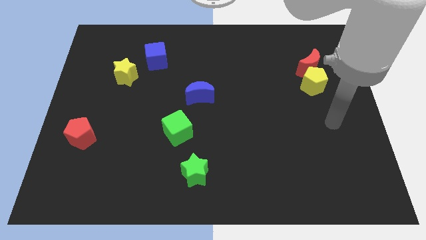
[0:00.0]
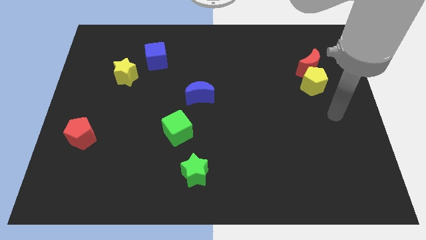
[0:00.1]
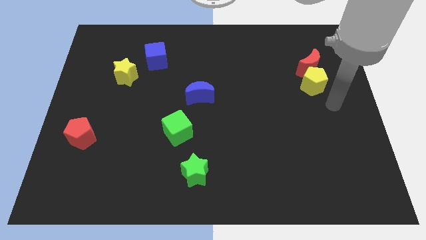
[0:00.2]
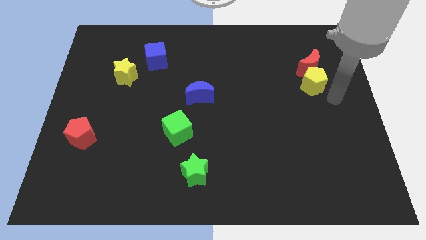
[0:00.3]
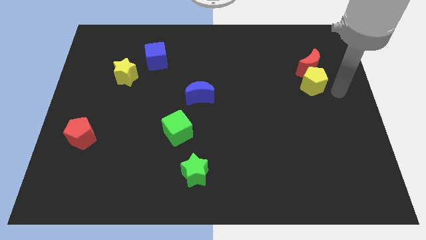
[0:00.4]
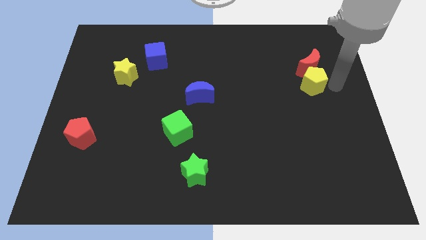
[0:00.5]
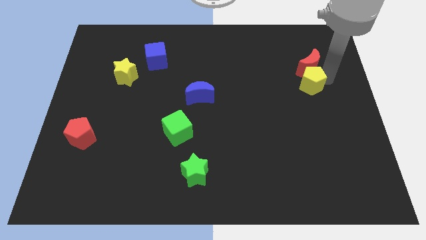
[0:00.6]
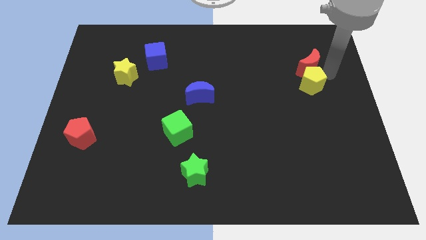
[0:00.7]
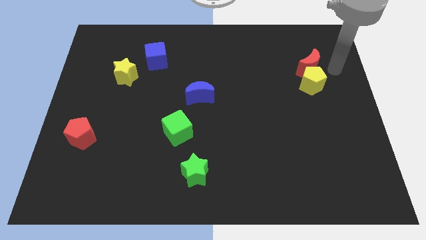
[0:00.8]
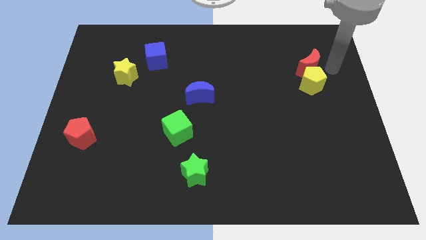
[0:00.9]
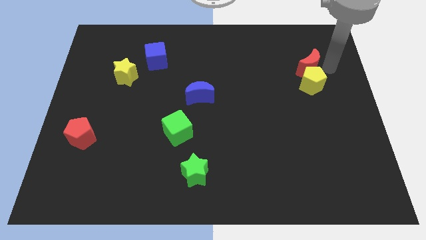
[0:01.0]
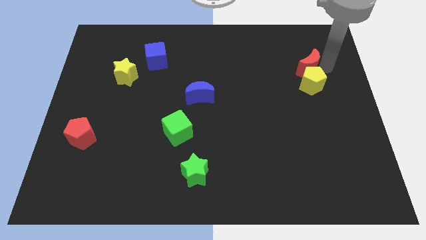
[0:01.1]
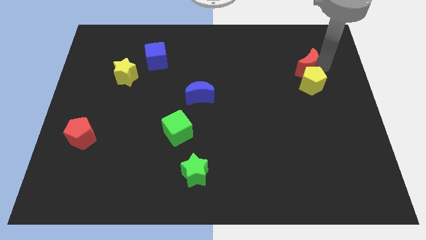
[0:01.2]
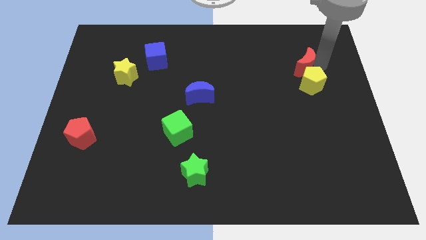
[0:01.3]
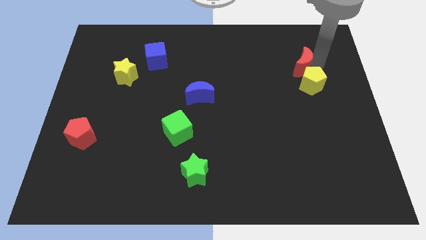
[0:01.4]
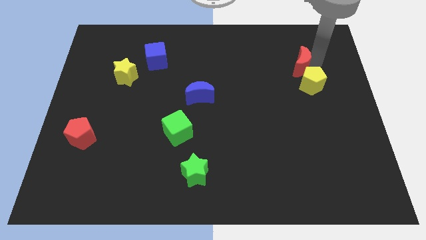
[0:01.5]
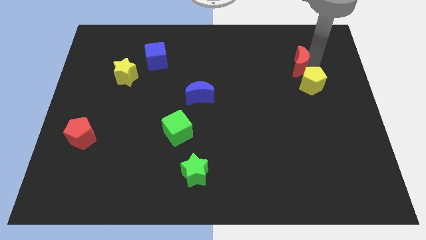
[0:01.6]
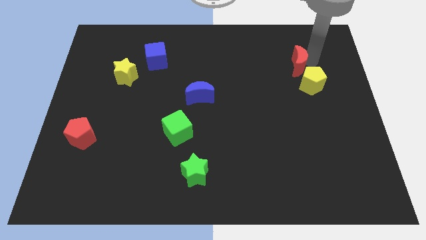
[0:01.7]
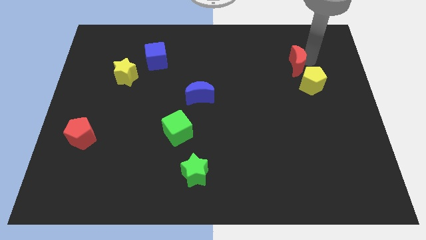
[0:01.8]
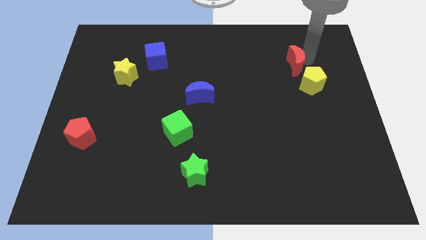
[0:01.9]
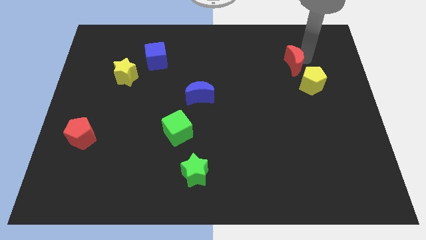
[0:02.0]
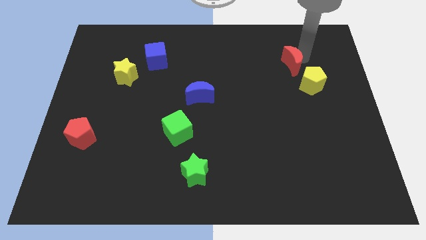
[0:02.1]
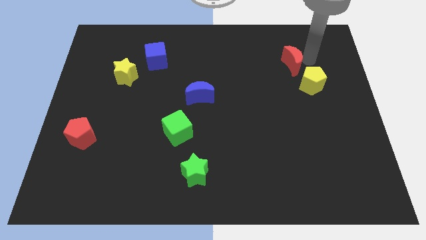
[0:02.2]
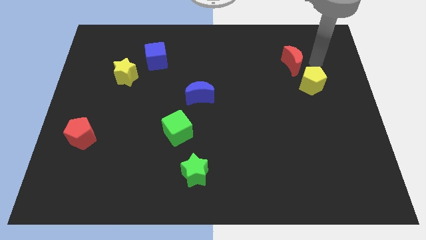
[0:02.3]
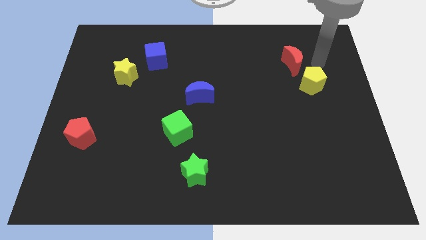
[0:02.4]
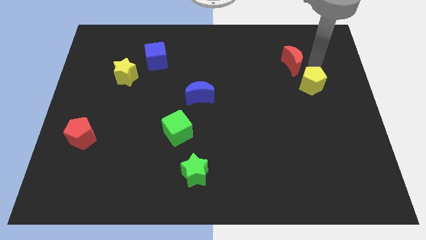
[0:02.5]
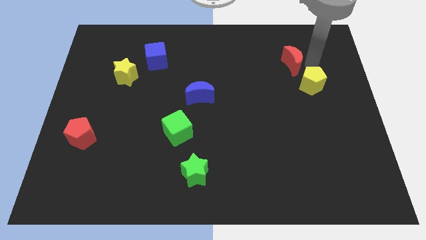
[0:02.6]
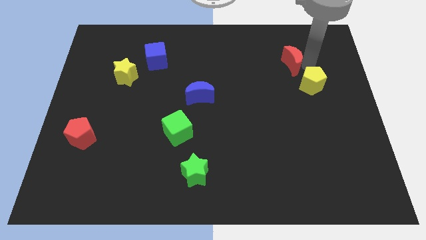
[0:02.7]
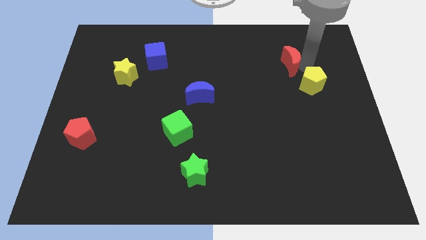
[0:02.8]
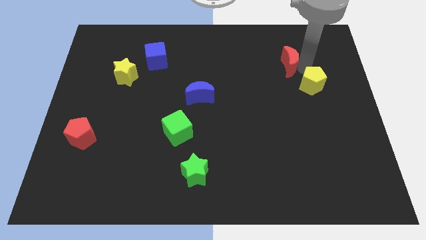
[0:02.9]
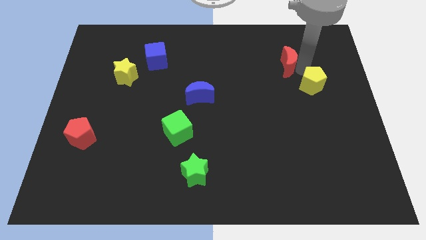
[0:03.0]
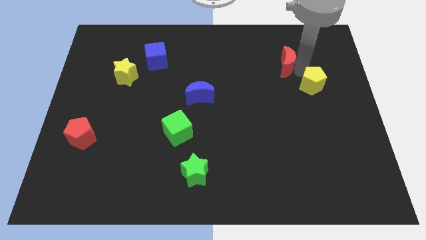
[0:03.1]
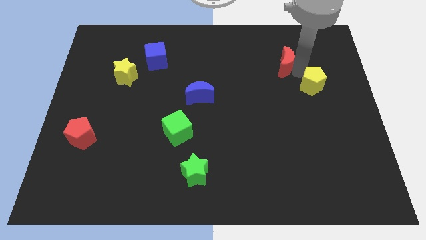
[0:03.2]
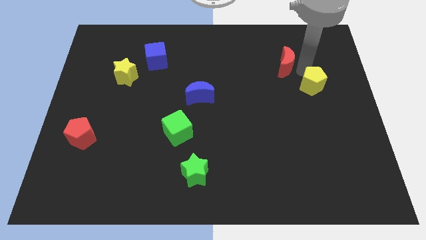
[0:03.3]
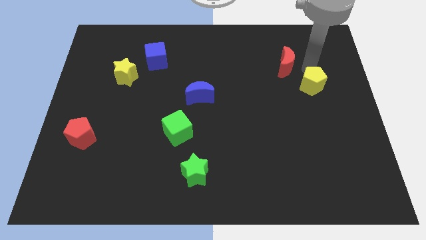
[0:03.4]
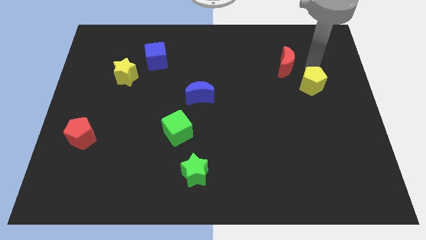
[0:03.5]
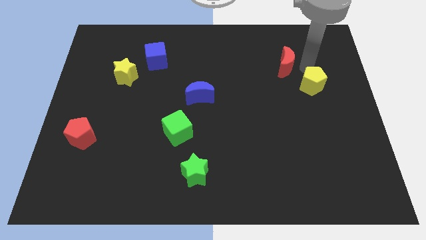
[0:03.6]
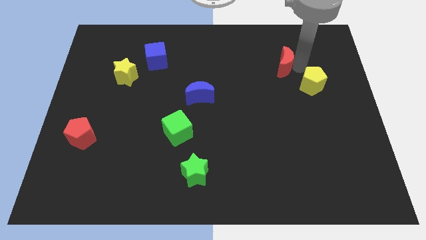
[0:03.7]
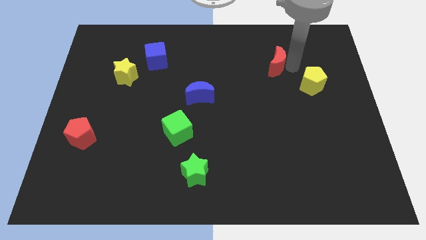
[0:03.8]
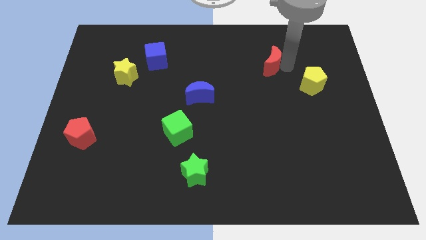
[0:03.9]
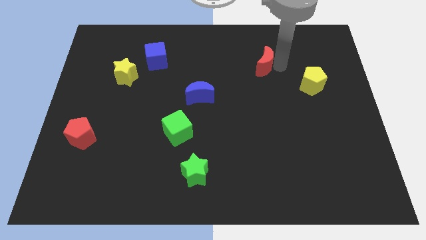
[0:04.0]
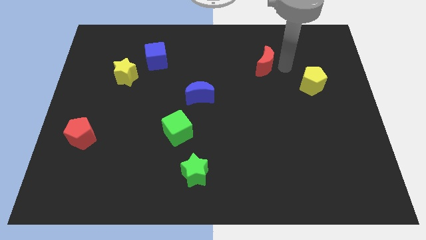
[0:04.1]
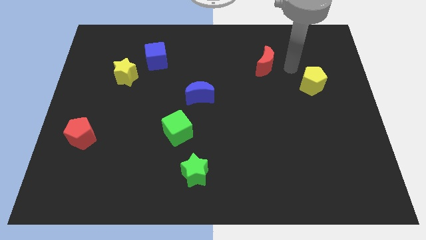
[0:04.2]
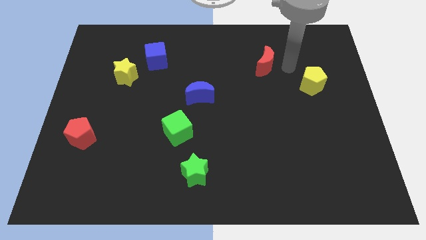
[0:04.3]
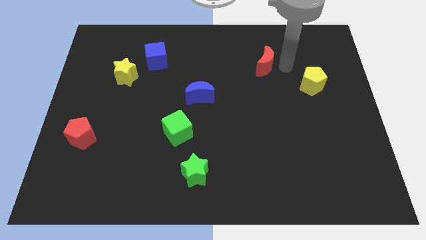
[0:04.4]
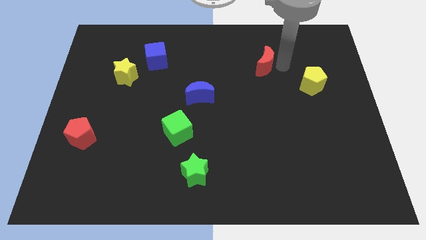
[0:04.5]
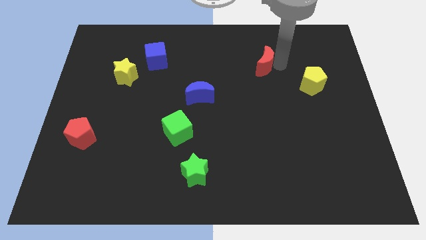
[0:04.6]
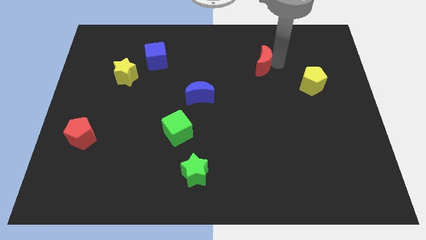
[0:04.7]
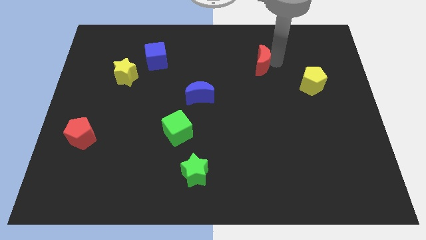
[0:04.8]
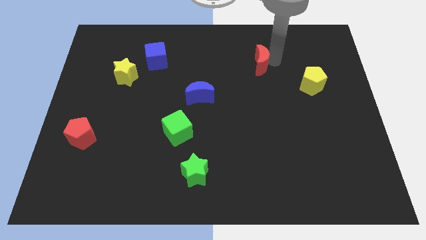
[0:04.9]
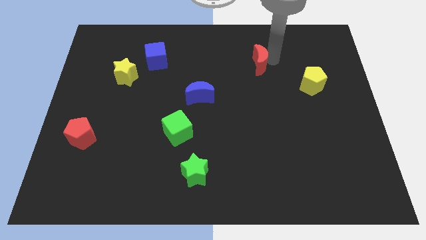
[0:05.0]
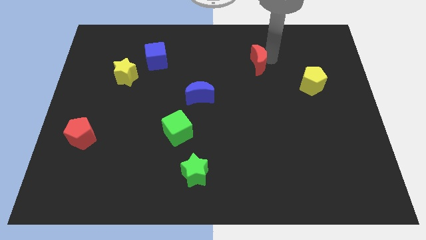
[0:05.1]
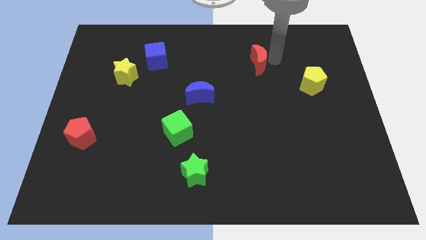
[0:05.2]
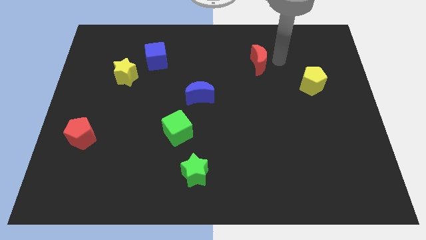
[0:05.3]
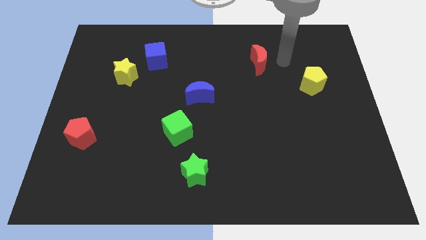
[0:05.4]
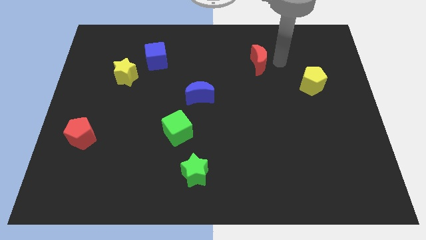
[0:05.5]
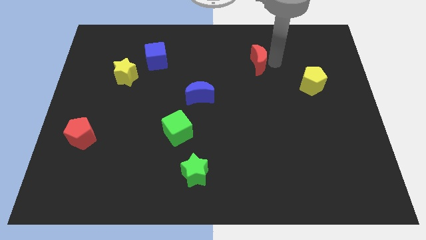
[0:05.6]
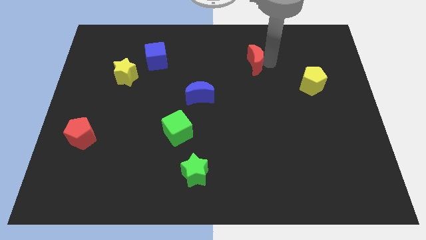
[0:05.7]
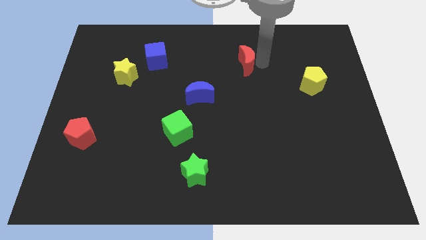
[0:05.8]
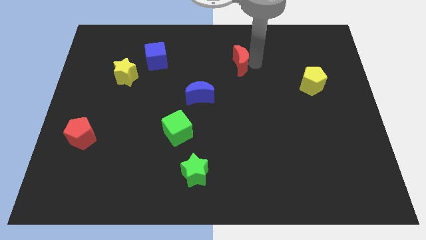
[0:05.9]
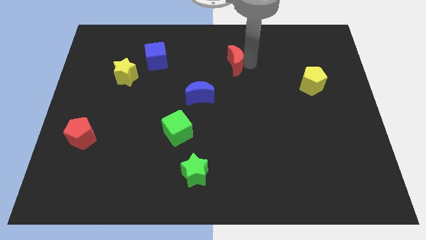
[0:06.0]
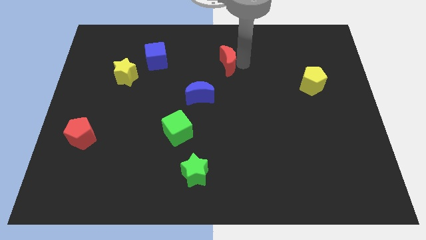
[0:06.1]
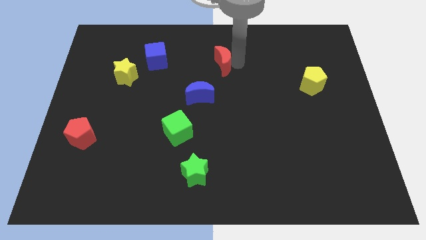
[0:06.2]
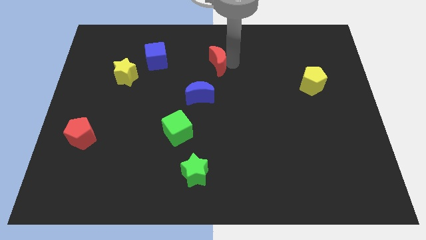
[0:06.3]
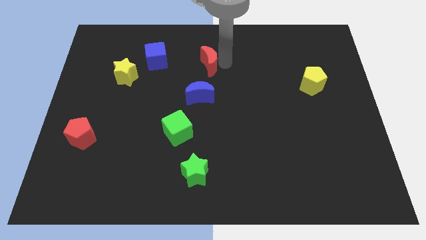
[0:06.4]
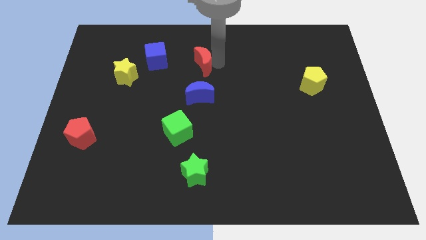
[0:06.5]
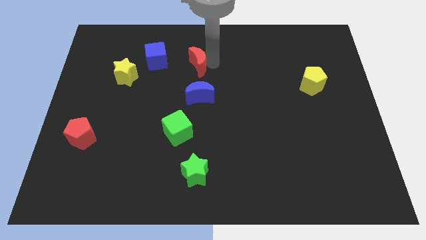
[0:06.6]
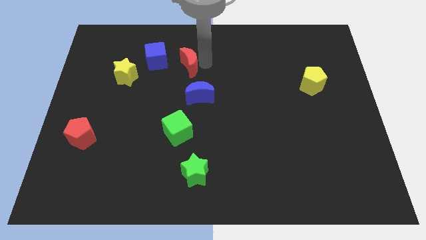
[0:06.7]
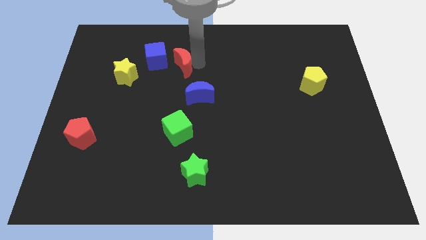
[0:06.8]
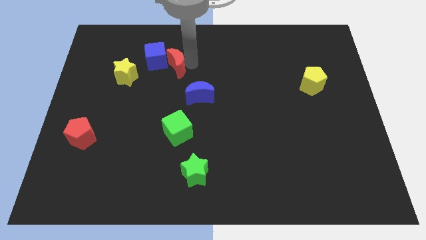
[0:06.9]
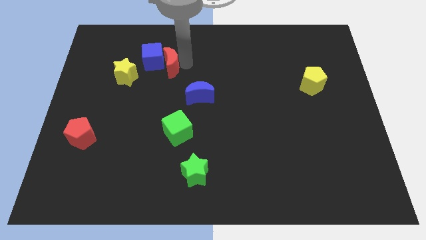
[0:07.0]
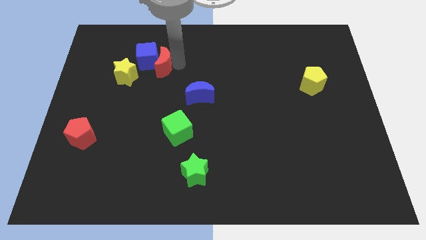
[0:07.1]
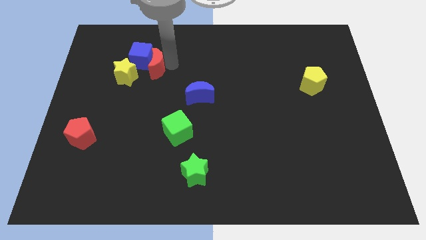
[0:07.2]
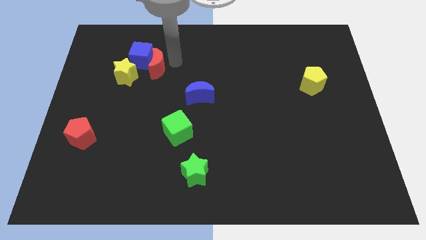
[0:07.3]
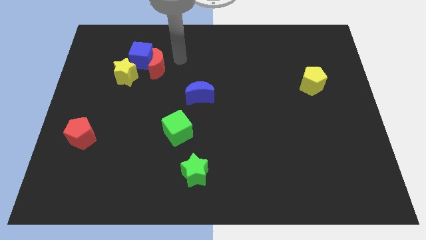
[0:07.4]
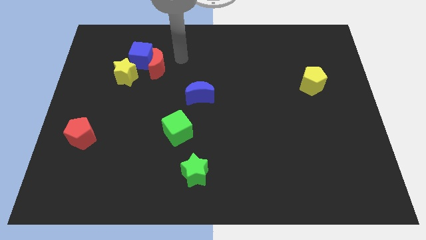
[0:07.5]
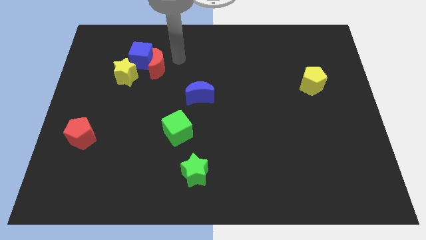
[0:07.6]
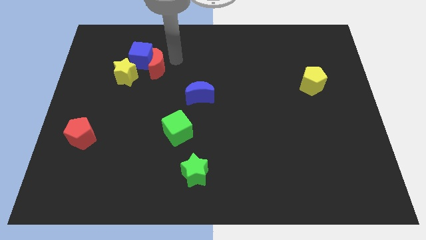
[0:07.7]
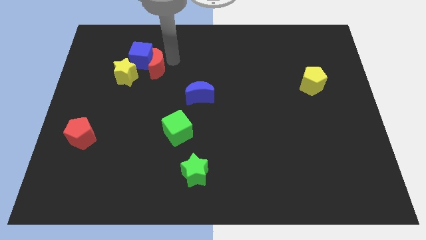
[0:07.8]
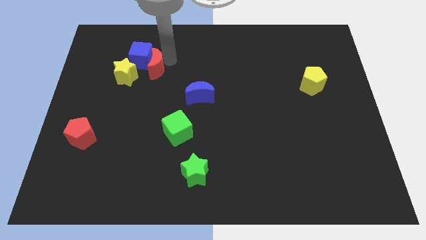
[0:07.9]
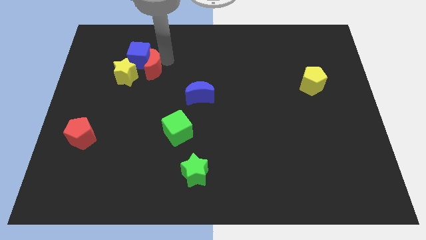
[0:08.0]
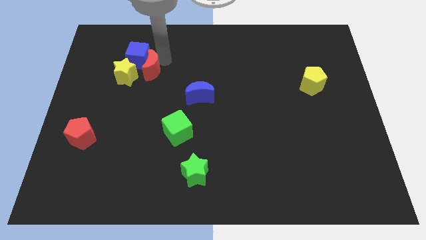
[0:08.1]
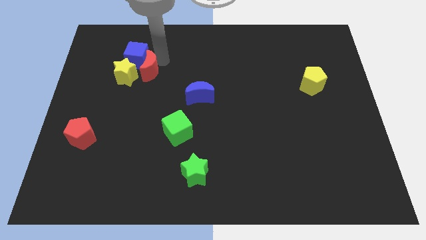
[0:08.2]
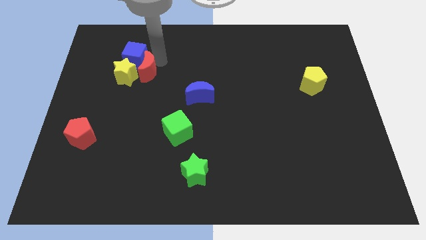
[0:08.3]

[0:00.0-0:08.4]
put the red moon next to the yellow star
